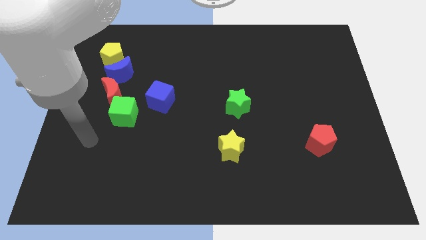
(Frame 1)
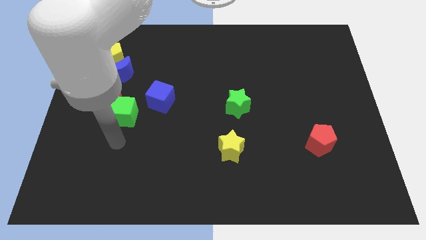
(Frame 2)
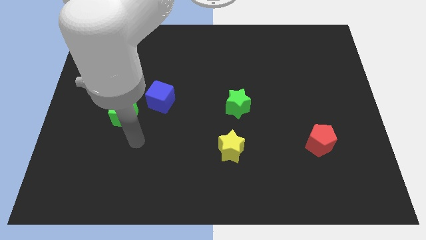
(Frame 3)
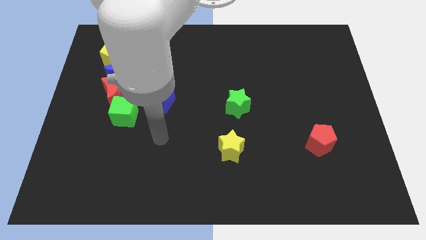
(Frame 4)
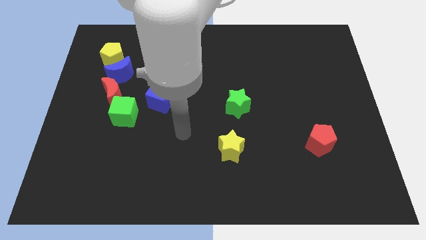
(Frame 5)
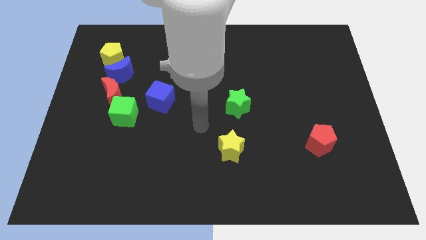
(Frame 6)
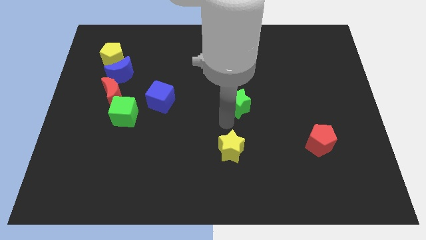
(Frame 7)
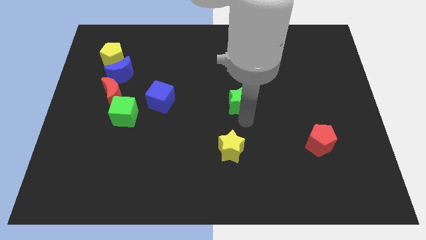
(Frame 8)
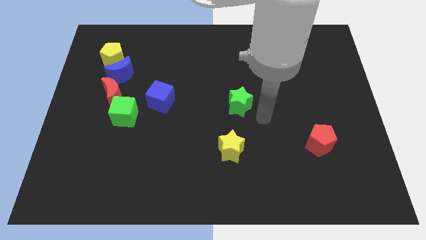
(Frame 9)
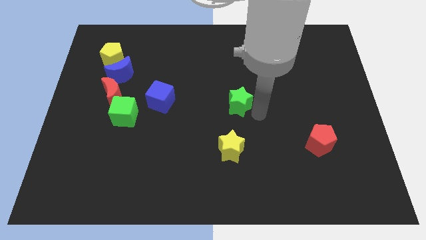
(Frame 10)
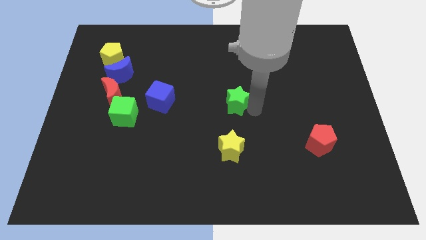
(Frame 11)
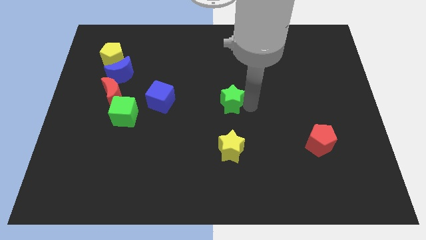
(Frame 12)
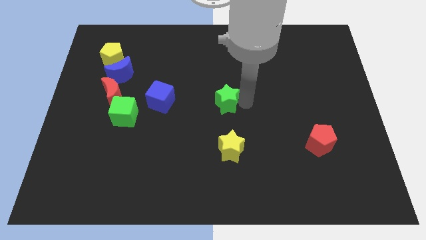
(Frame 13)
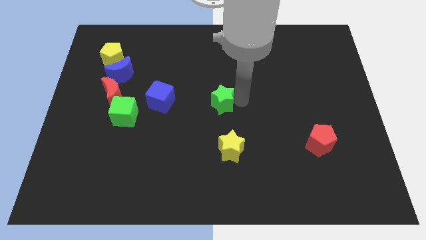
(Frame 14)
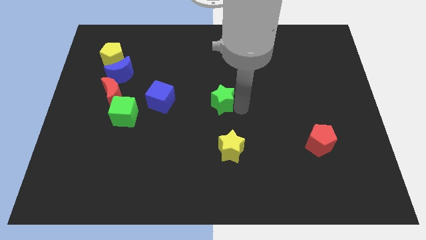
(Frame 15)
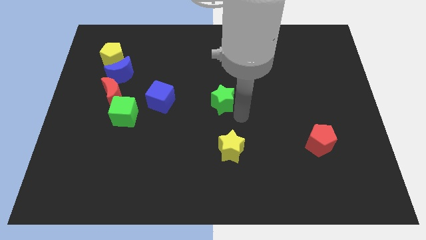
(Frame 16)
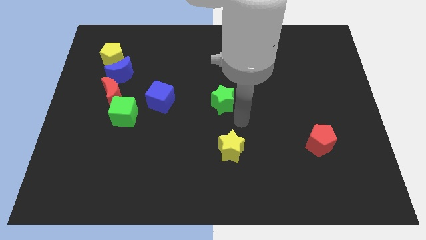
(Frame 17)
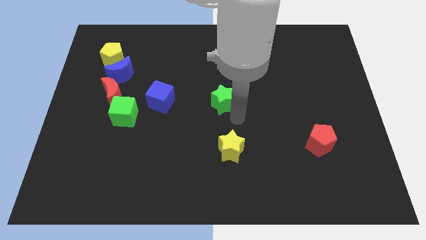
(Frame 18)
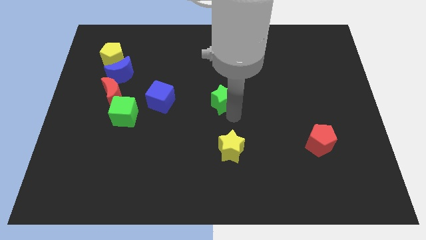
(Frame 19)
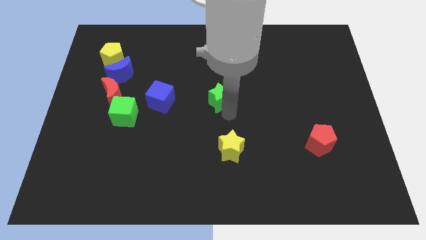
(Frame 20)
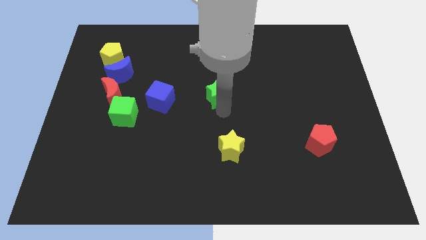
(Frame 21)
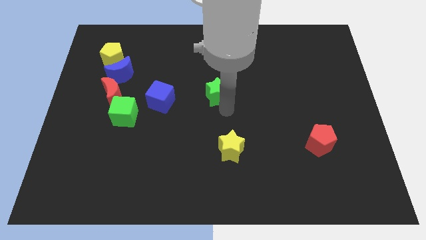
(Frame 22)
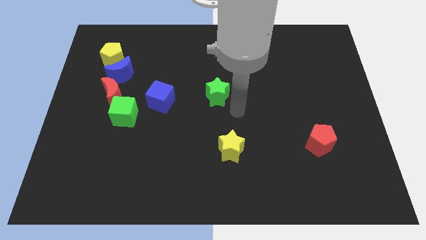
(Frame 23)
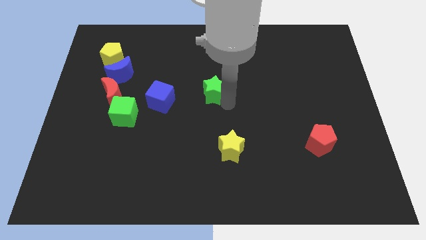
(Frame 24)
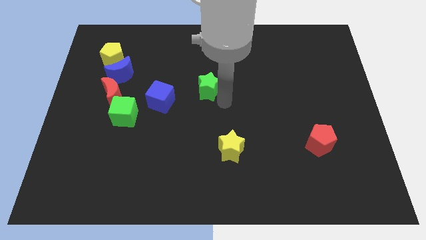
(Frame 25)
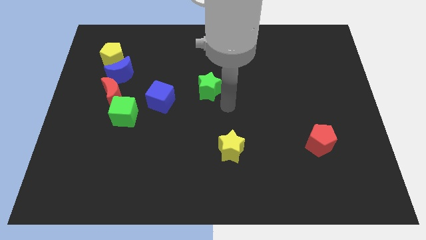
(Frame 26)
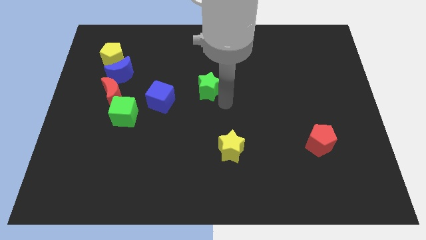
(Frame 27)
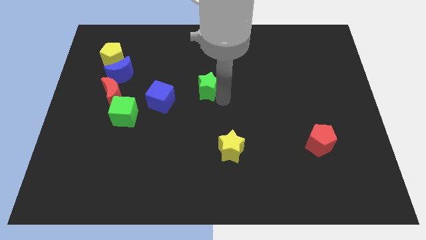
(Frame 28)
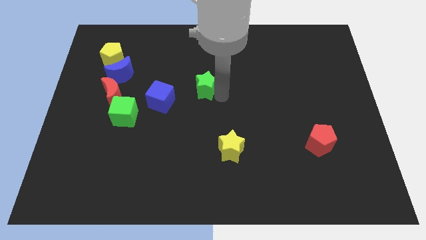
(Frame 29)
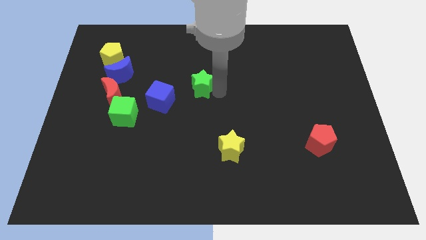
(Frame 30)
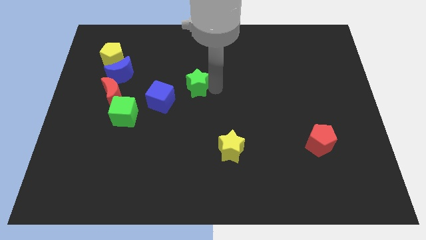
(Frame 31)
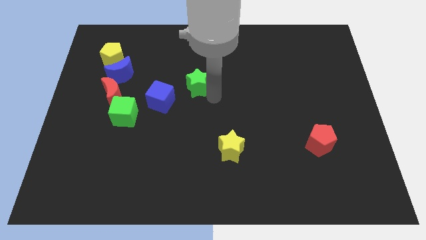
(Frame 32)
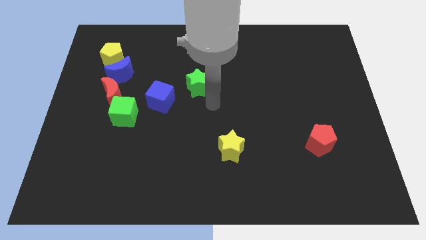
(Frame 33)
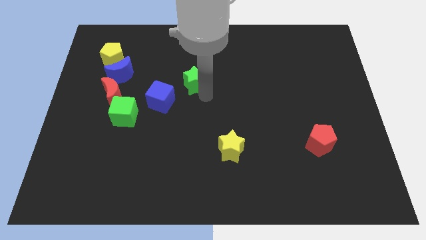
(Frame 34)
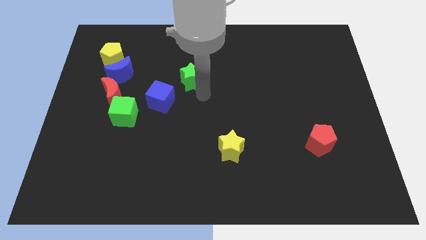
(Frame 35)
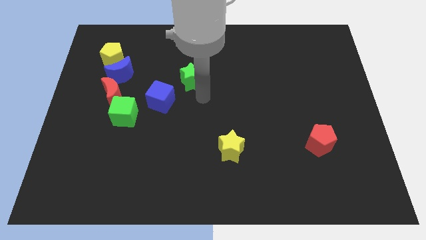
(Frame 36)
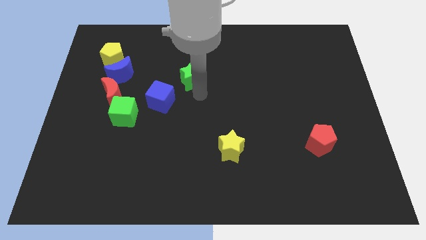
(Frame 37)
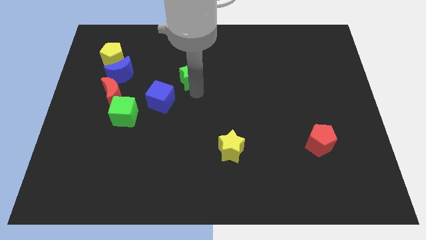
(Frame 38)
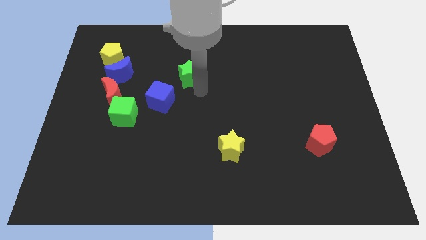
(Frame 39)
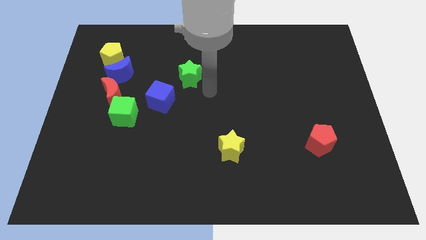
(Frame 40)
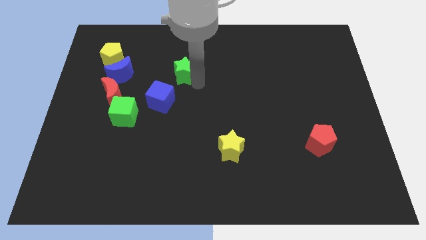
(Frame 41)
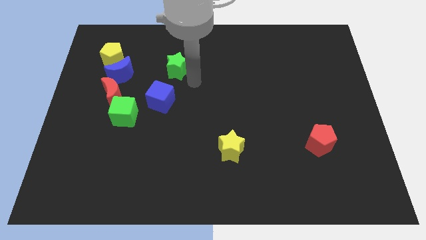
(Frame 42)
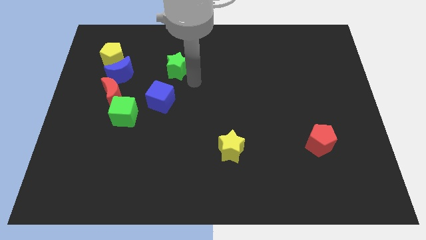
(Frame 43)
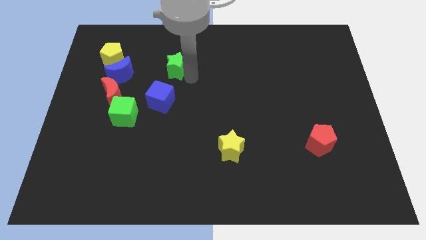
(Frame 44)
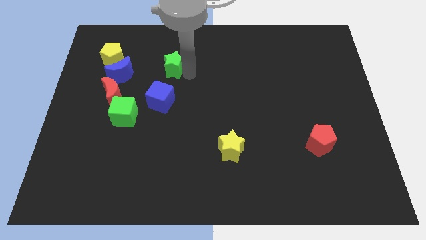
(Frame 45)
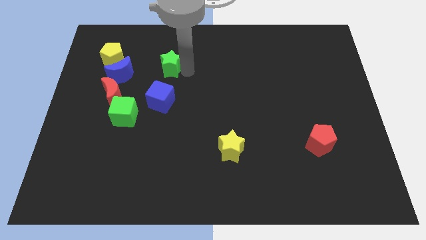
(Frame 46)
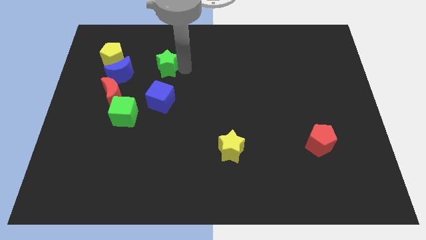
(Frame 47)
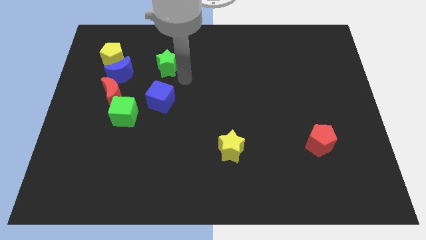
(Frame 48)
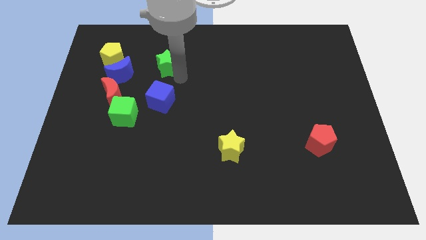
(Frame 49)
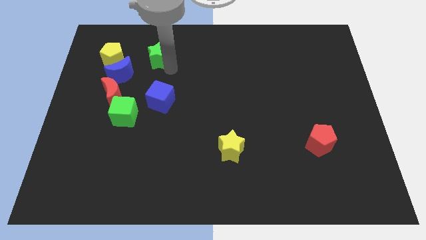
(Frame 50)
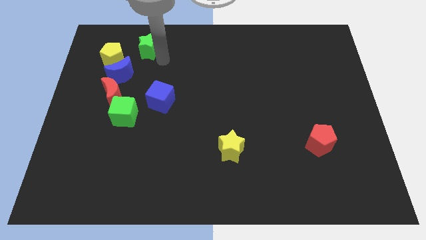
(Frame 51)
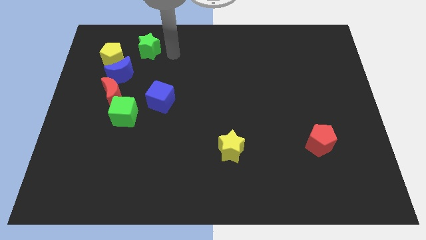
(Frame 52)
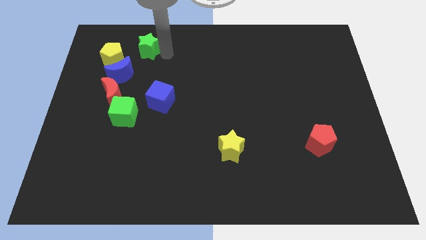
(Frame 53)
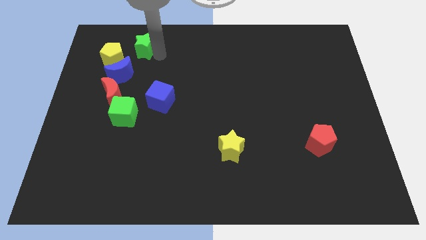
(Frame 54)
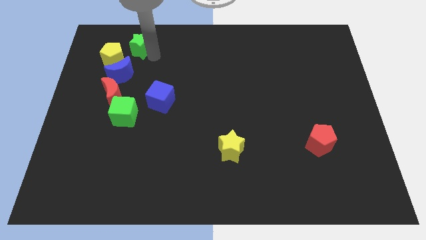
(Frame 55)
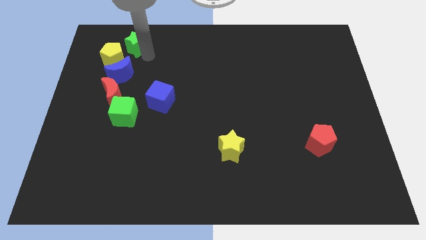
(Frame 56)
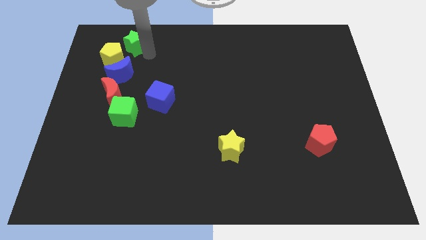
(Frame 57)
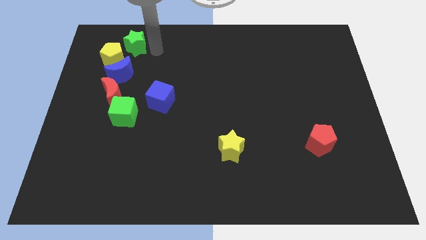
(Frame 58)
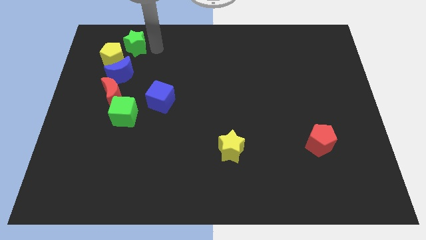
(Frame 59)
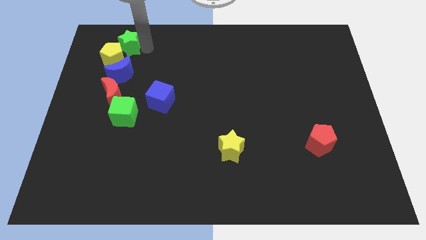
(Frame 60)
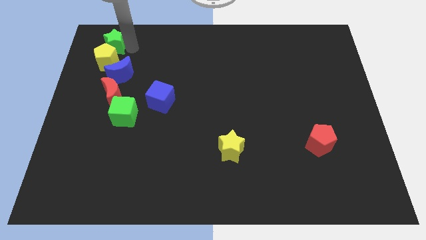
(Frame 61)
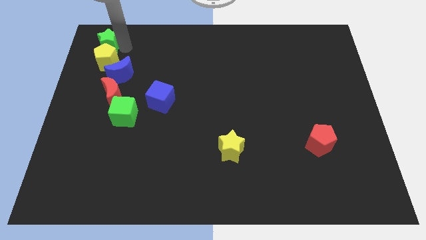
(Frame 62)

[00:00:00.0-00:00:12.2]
put the green star diagonally up and to the left of the blue moon

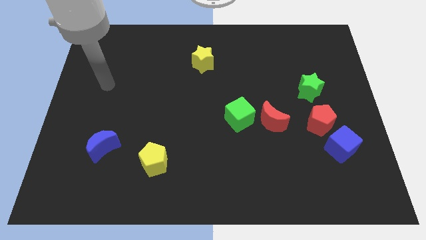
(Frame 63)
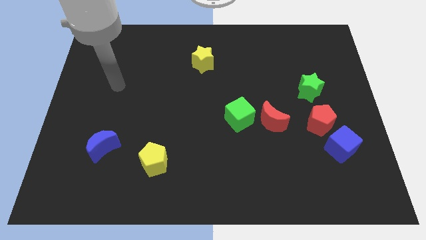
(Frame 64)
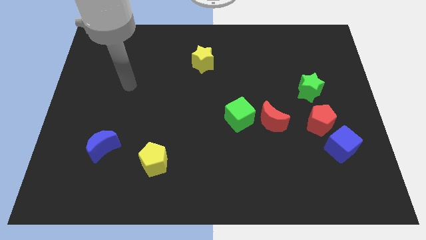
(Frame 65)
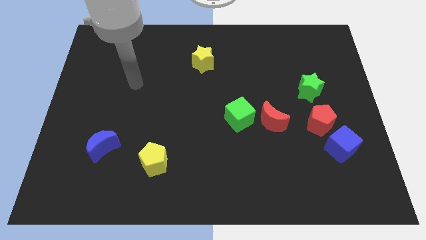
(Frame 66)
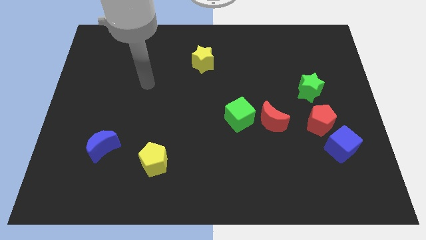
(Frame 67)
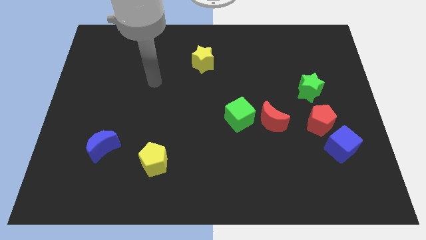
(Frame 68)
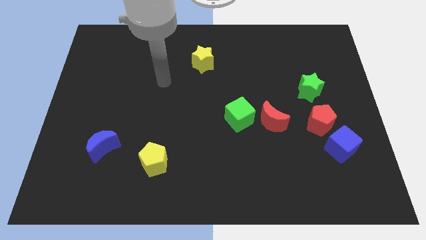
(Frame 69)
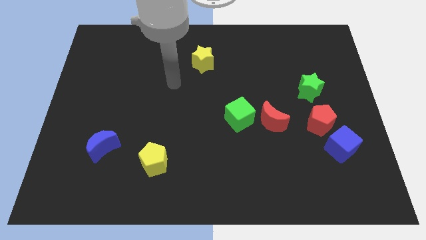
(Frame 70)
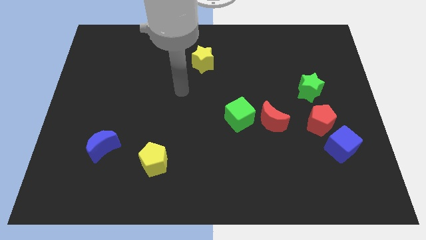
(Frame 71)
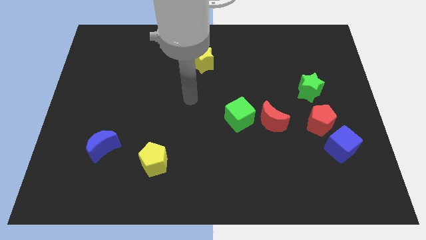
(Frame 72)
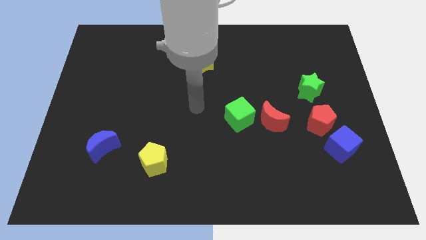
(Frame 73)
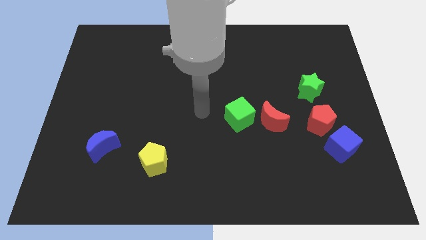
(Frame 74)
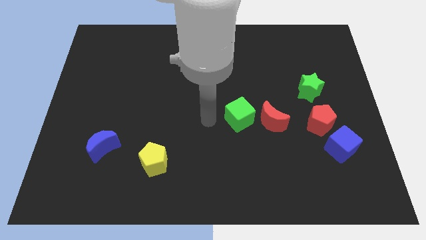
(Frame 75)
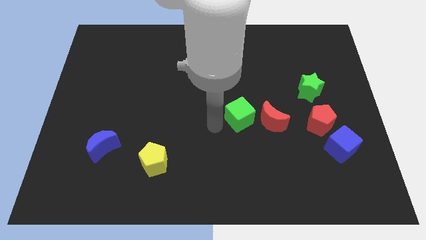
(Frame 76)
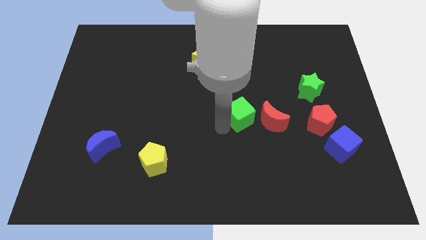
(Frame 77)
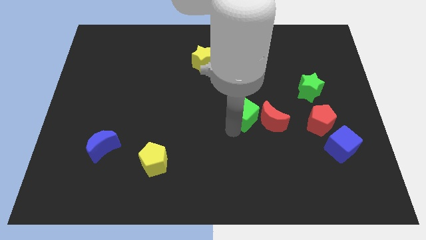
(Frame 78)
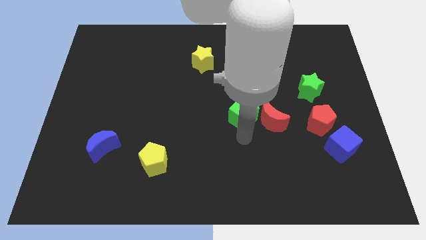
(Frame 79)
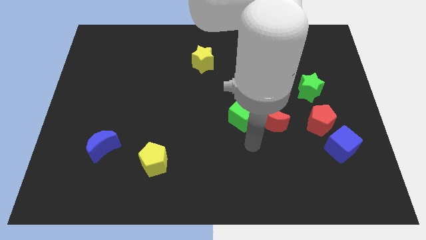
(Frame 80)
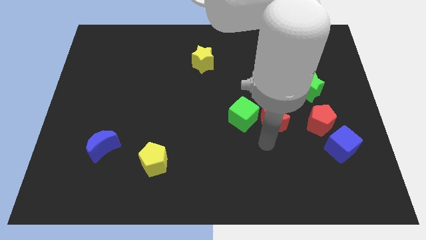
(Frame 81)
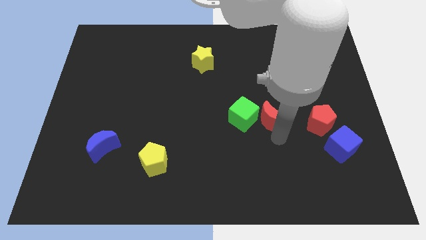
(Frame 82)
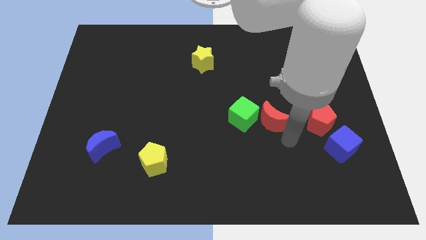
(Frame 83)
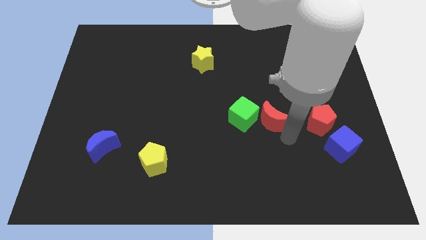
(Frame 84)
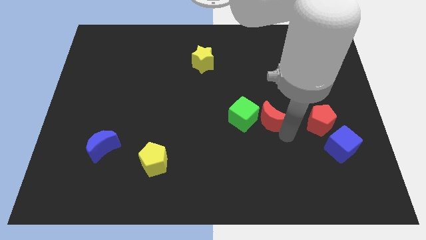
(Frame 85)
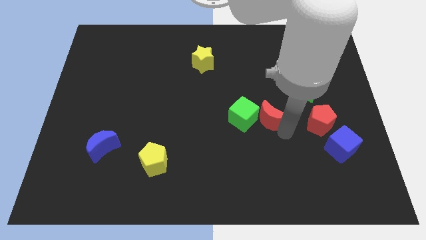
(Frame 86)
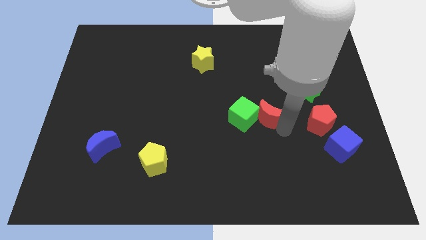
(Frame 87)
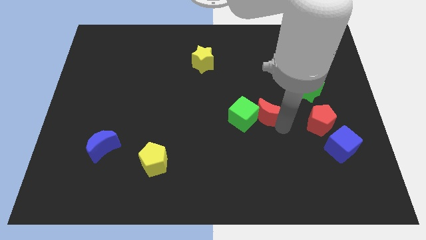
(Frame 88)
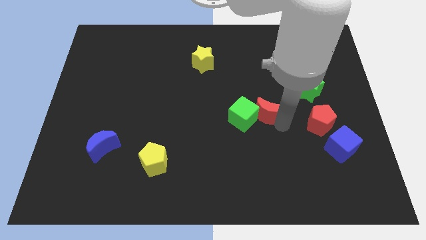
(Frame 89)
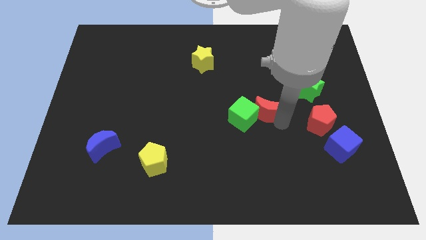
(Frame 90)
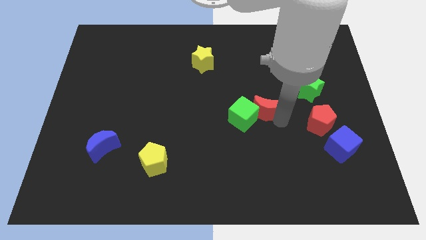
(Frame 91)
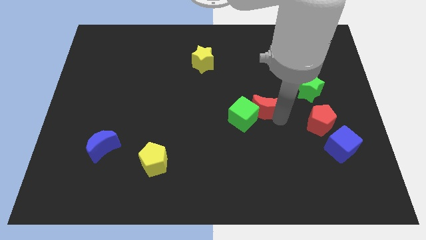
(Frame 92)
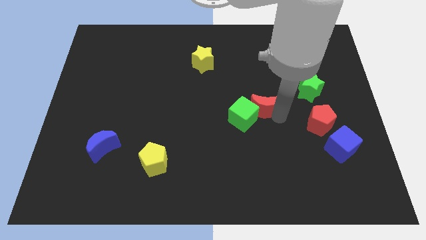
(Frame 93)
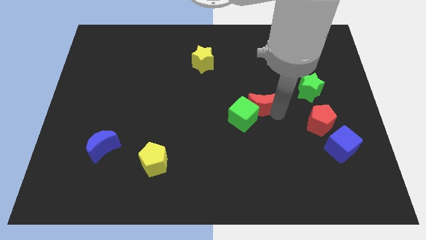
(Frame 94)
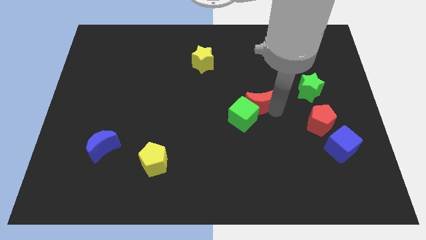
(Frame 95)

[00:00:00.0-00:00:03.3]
move the red moon above the green cube
